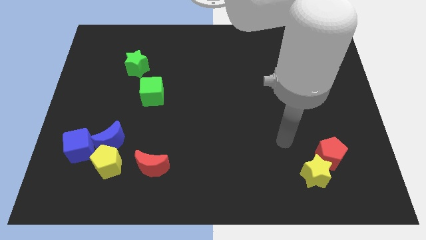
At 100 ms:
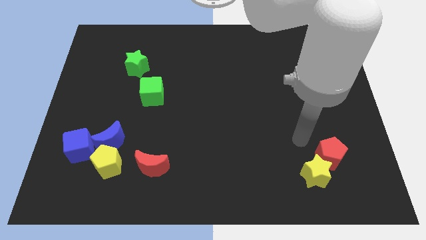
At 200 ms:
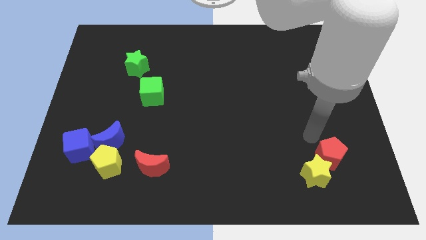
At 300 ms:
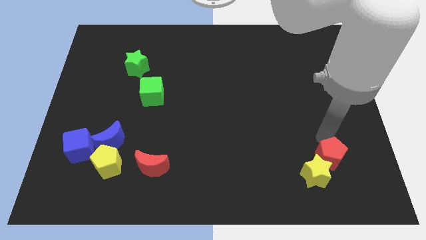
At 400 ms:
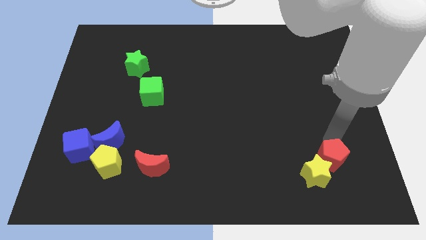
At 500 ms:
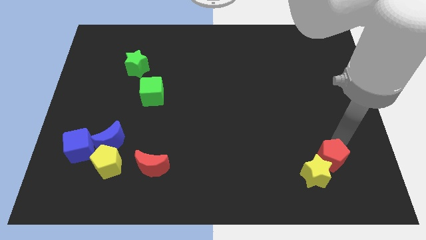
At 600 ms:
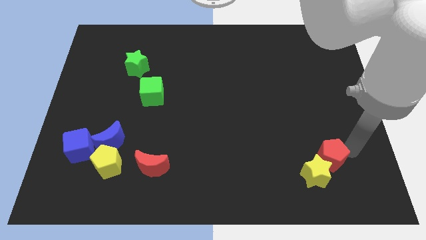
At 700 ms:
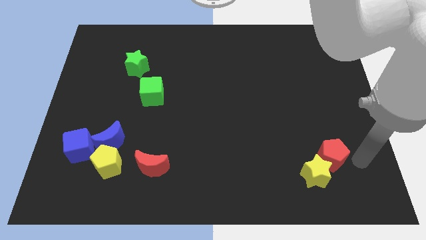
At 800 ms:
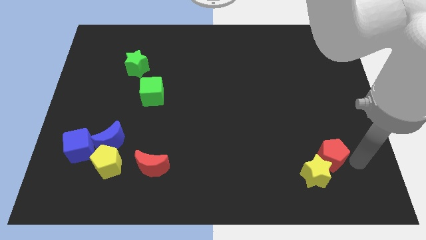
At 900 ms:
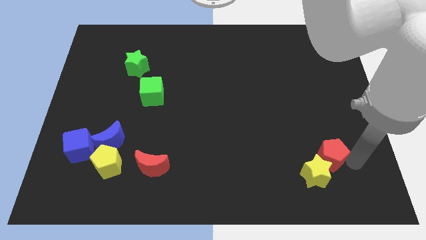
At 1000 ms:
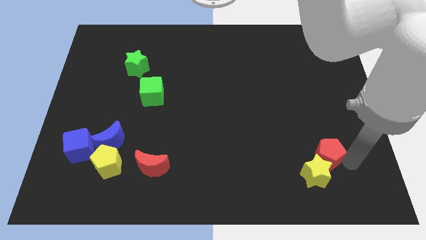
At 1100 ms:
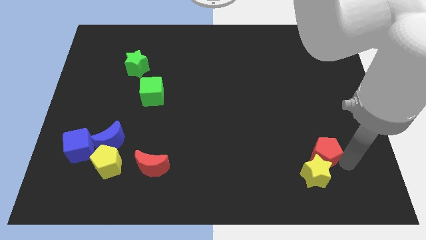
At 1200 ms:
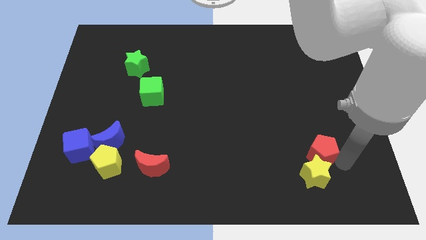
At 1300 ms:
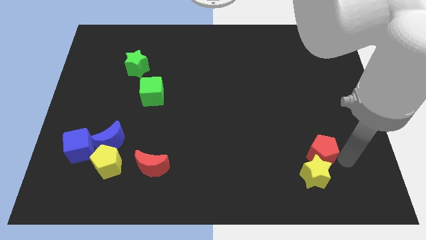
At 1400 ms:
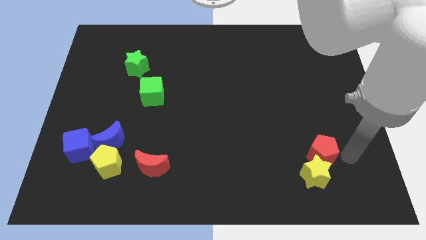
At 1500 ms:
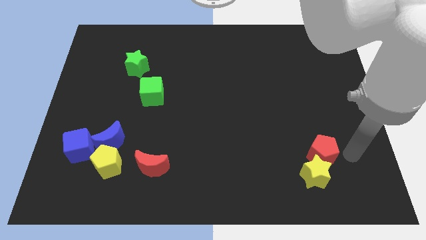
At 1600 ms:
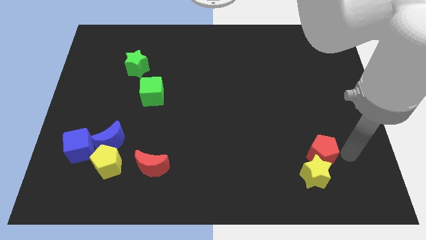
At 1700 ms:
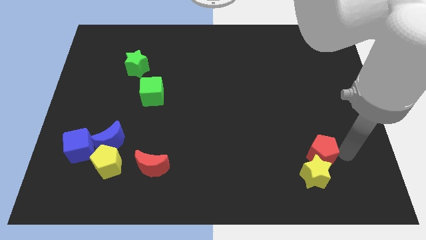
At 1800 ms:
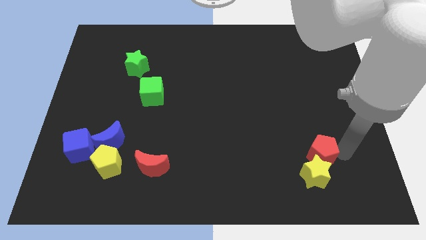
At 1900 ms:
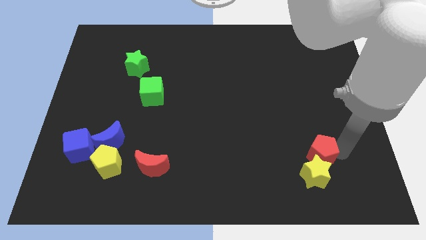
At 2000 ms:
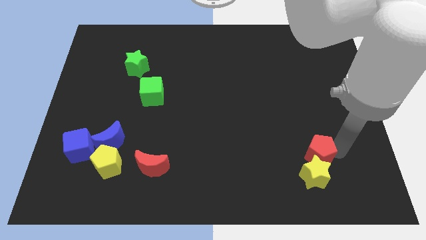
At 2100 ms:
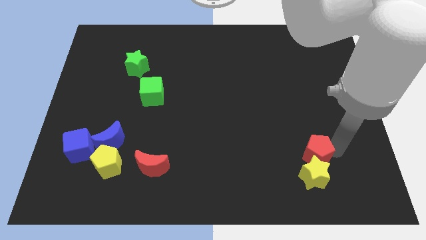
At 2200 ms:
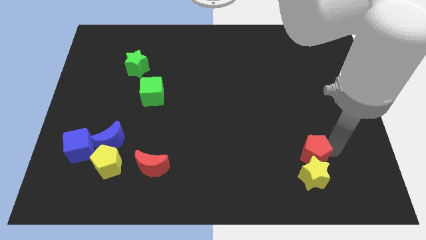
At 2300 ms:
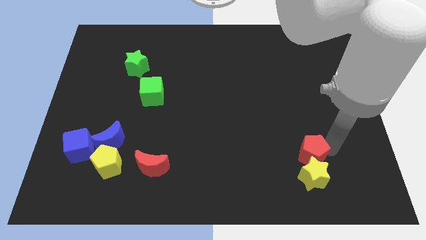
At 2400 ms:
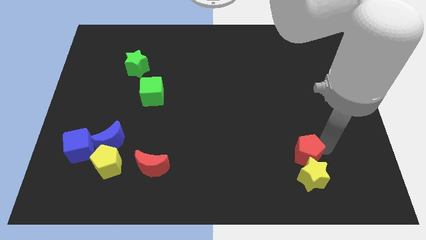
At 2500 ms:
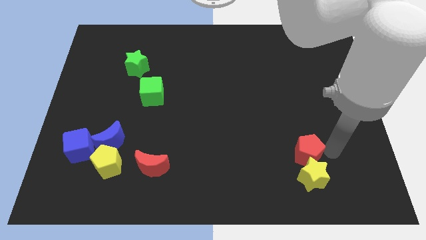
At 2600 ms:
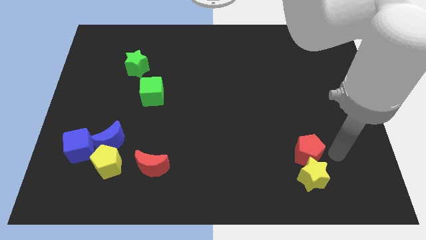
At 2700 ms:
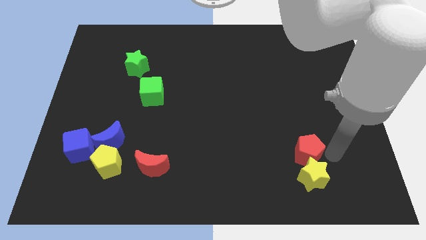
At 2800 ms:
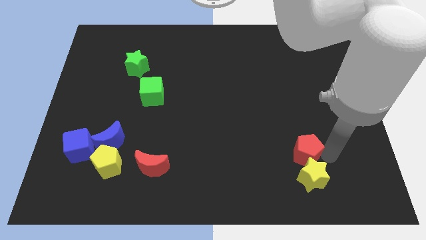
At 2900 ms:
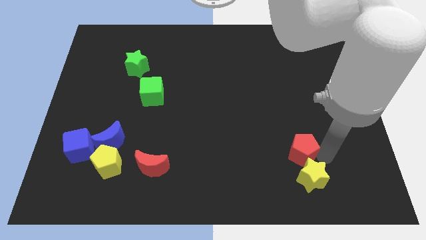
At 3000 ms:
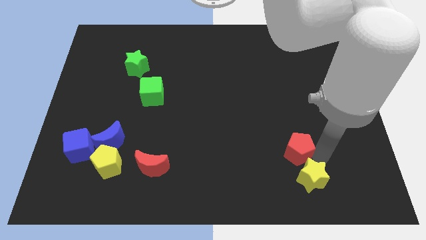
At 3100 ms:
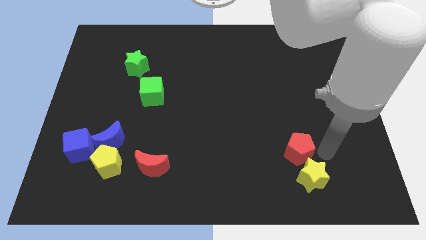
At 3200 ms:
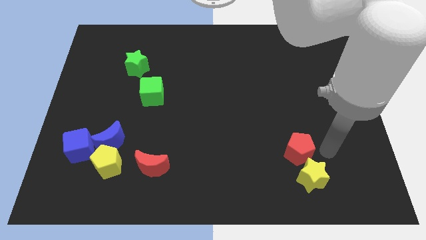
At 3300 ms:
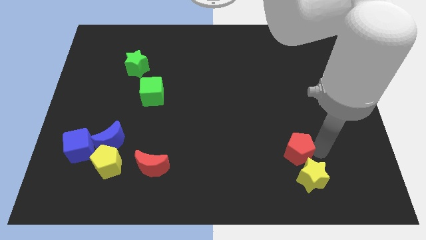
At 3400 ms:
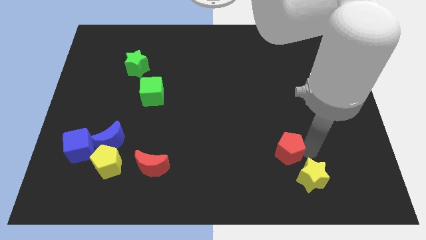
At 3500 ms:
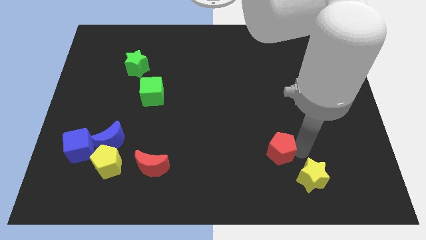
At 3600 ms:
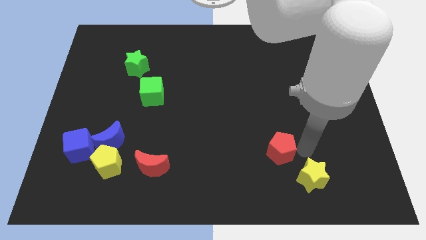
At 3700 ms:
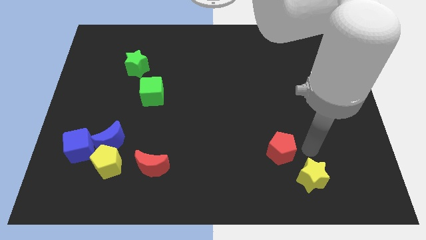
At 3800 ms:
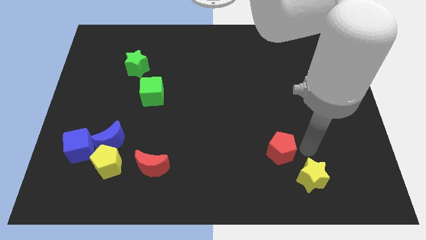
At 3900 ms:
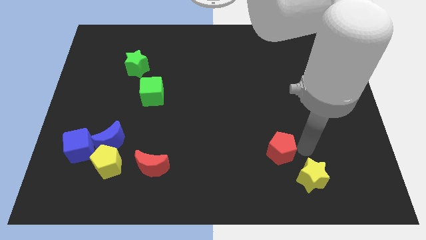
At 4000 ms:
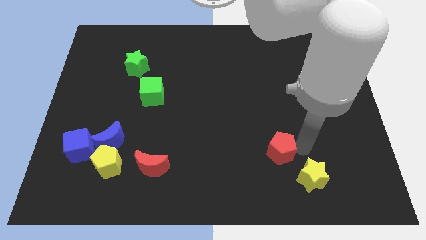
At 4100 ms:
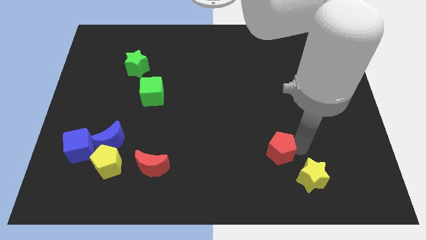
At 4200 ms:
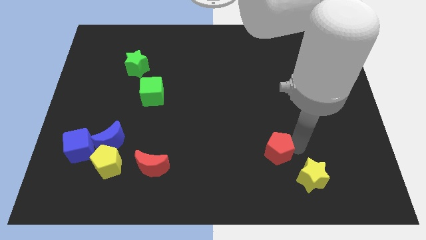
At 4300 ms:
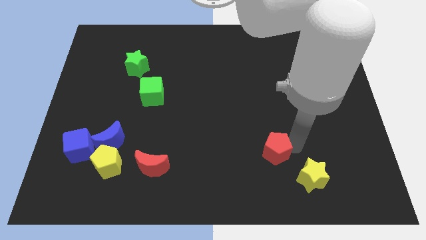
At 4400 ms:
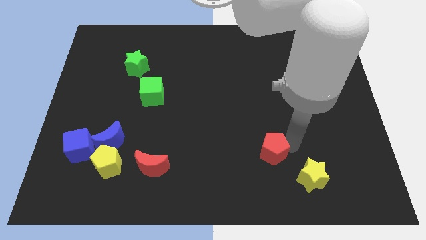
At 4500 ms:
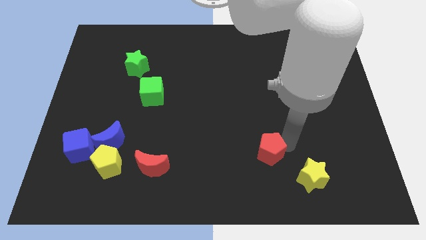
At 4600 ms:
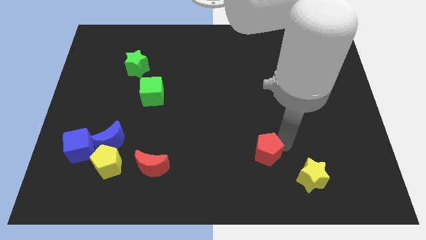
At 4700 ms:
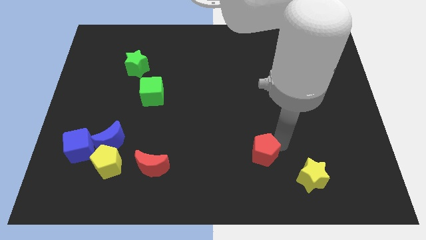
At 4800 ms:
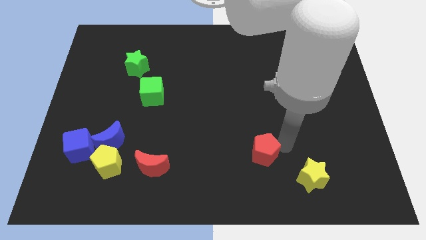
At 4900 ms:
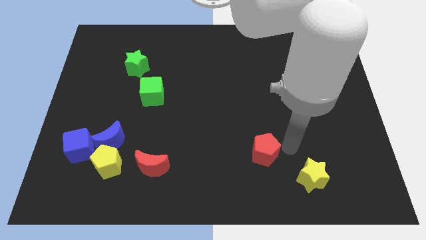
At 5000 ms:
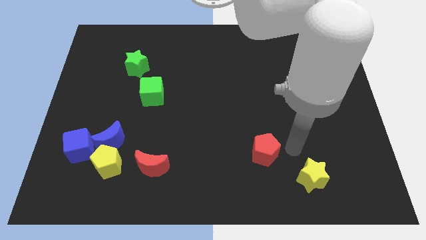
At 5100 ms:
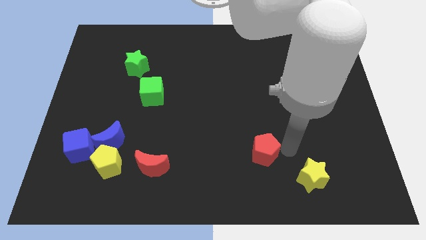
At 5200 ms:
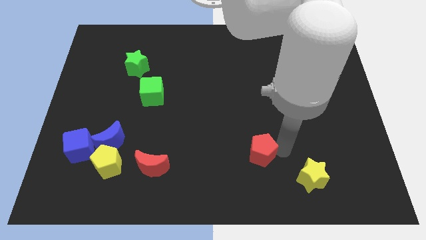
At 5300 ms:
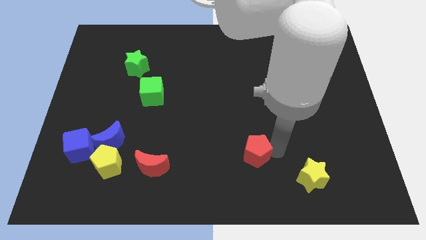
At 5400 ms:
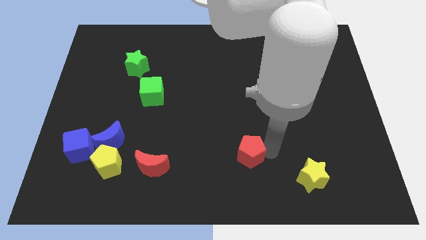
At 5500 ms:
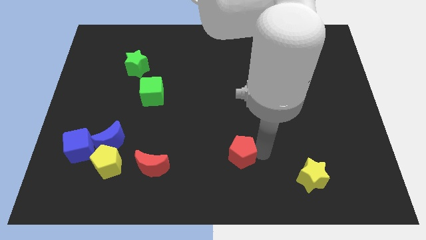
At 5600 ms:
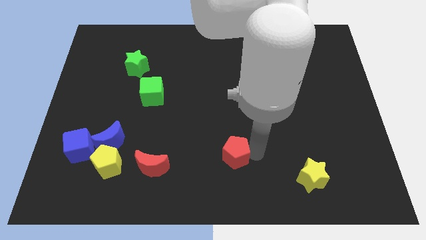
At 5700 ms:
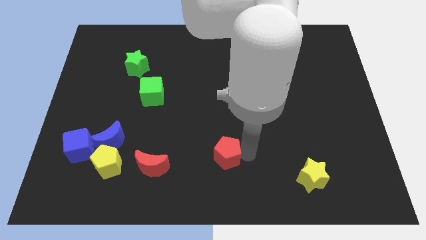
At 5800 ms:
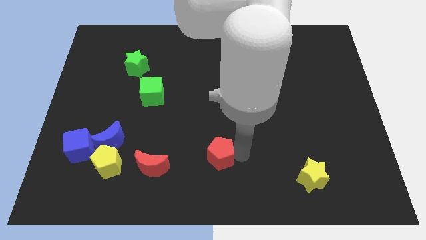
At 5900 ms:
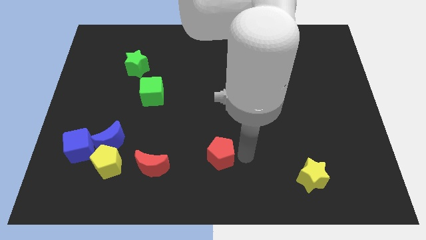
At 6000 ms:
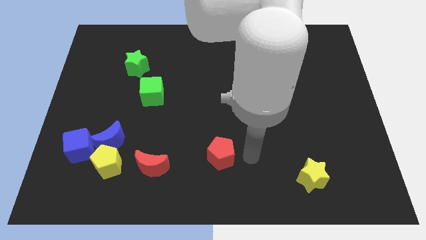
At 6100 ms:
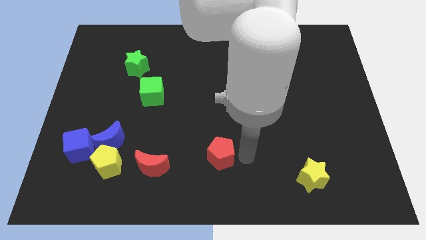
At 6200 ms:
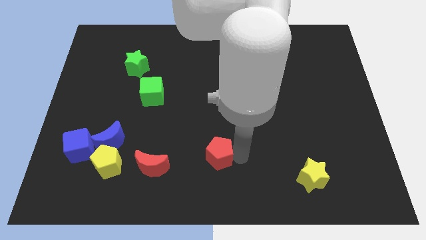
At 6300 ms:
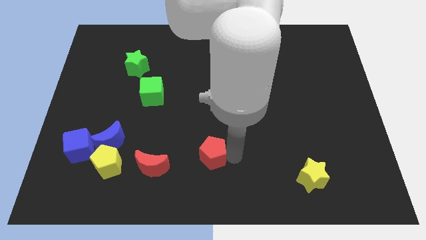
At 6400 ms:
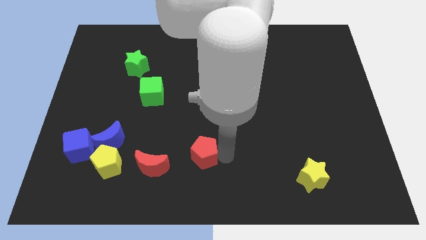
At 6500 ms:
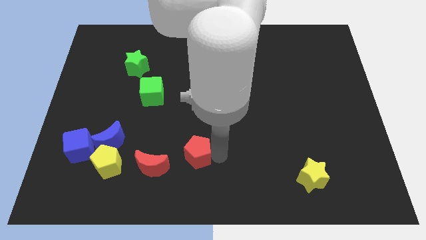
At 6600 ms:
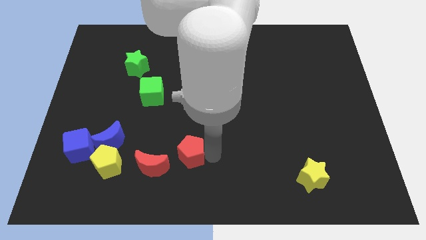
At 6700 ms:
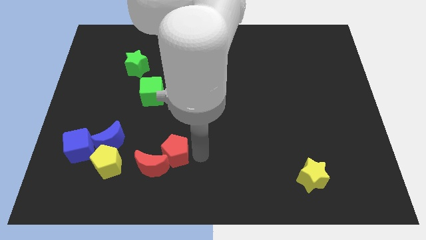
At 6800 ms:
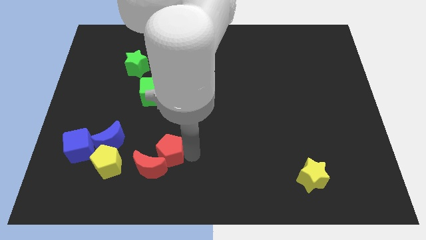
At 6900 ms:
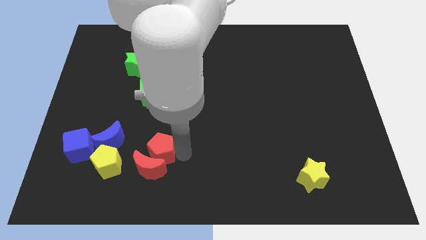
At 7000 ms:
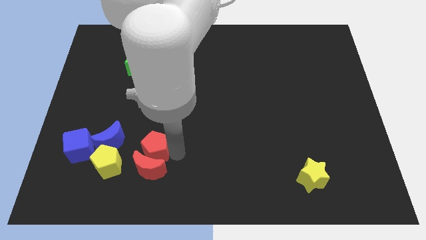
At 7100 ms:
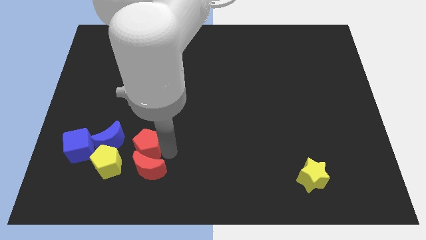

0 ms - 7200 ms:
move the red pentagon right of the blue cube
